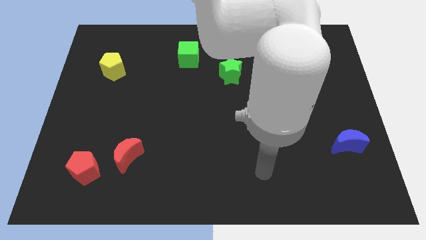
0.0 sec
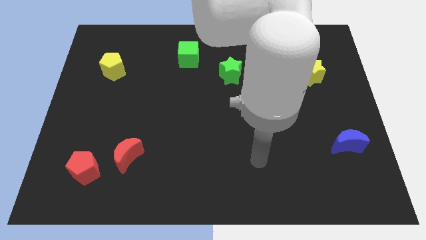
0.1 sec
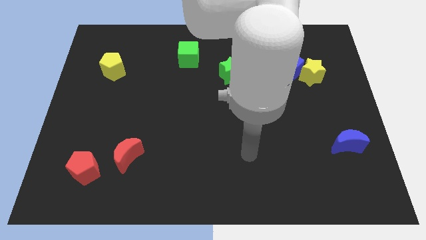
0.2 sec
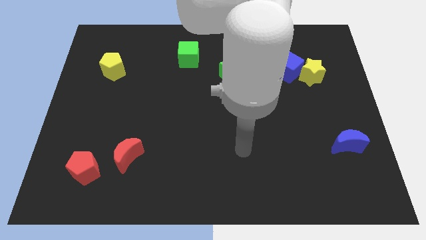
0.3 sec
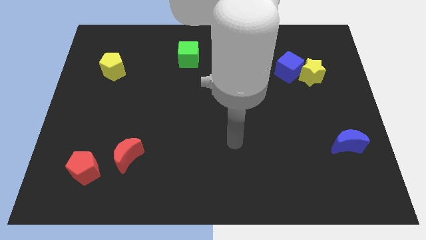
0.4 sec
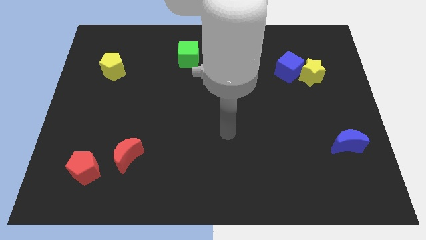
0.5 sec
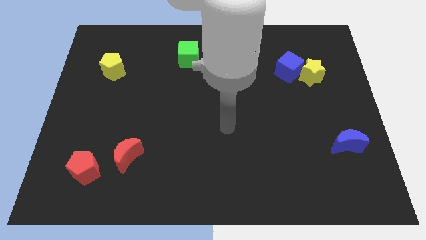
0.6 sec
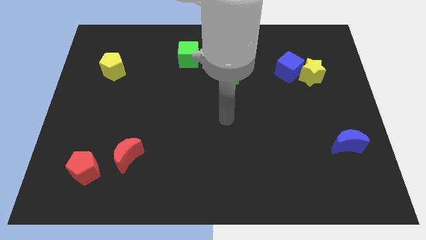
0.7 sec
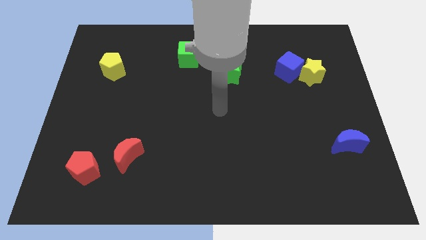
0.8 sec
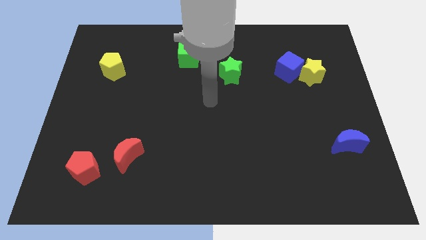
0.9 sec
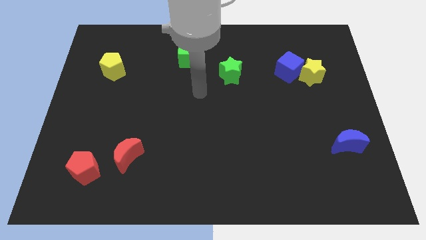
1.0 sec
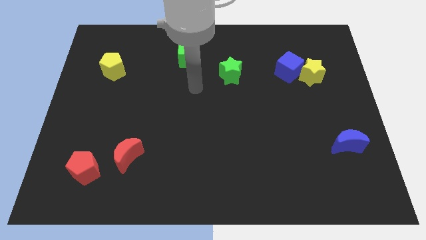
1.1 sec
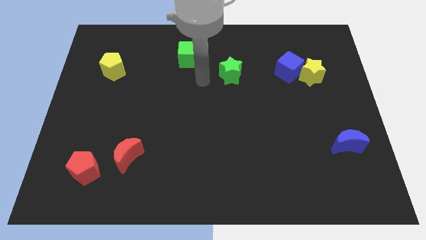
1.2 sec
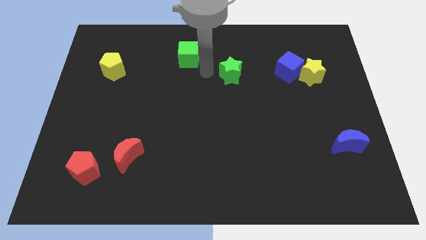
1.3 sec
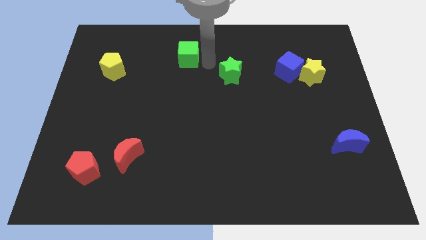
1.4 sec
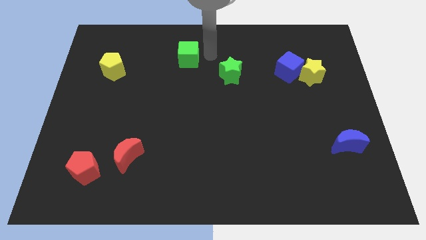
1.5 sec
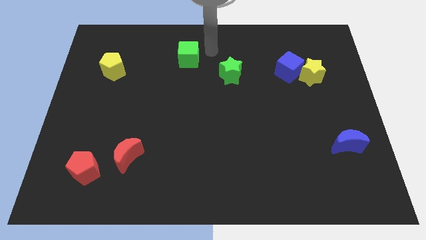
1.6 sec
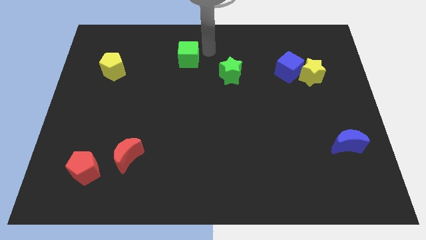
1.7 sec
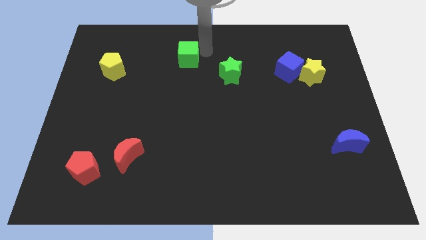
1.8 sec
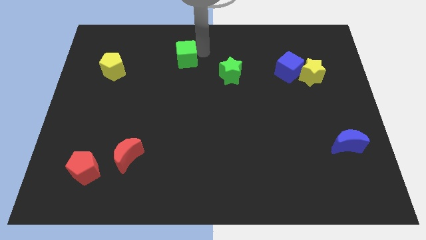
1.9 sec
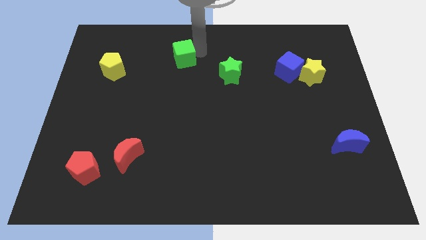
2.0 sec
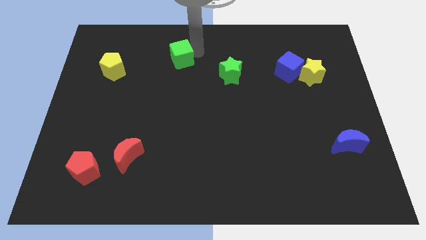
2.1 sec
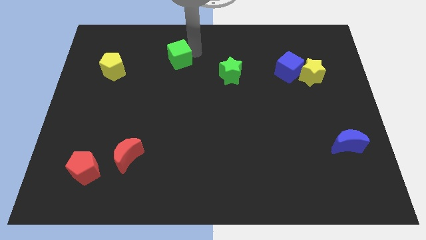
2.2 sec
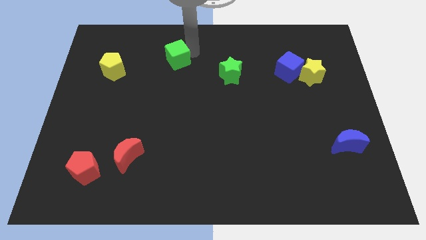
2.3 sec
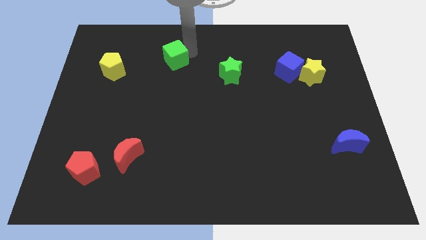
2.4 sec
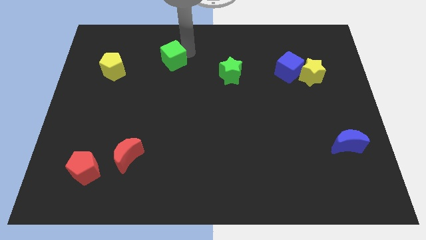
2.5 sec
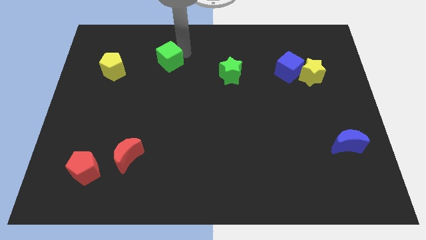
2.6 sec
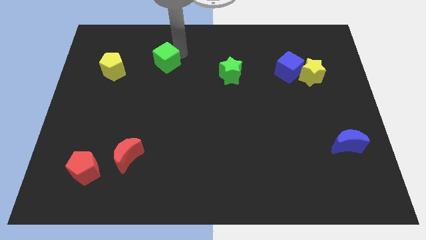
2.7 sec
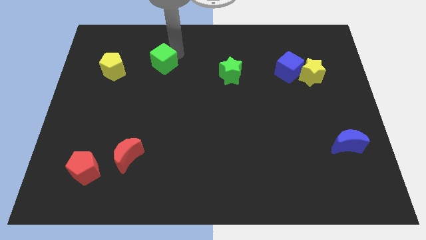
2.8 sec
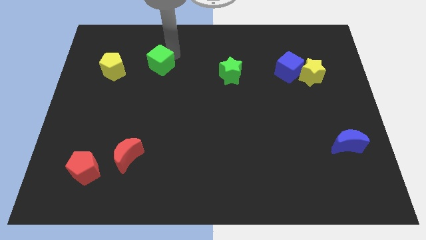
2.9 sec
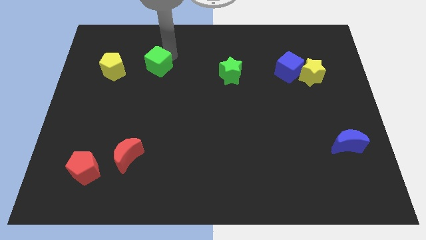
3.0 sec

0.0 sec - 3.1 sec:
slide the green cube a little diagonally downwards and to the left

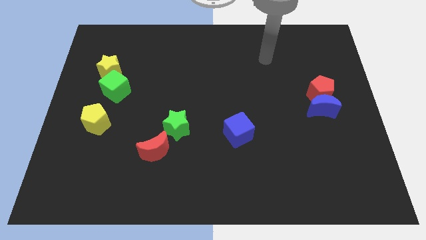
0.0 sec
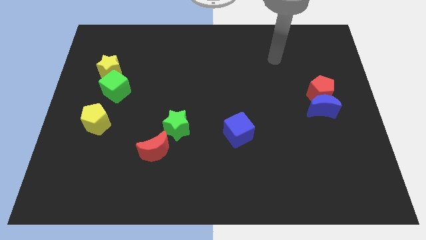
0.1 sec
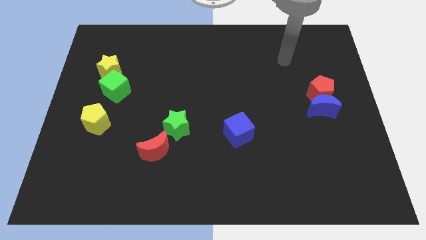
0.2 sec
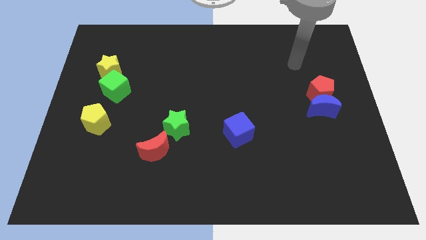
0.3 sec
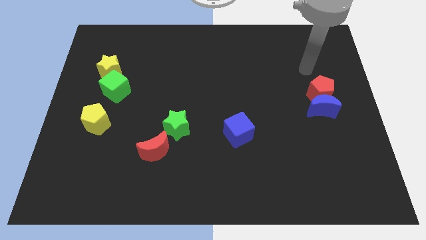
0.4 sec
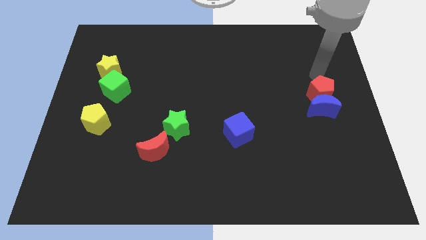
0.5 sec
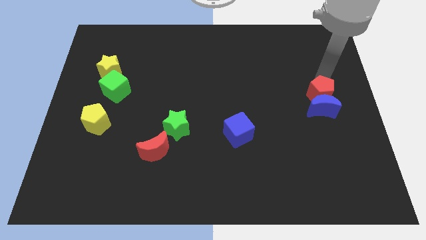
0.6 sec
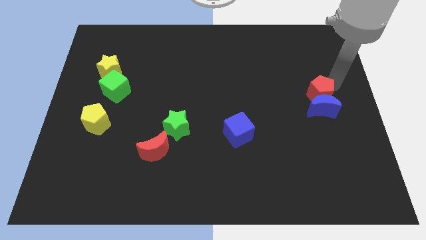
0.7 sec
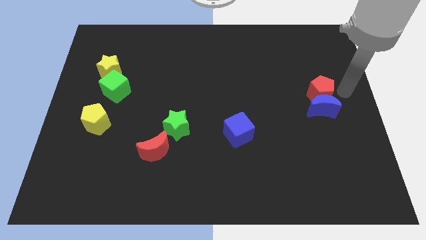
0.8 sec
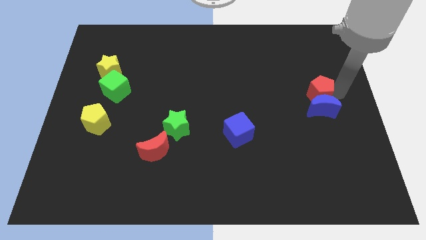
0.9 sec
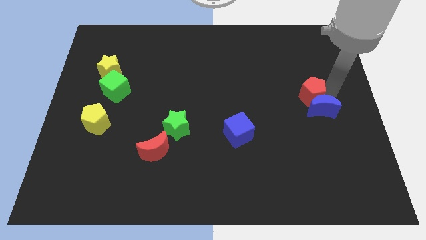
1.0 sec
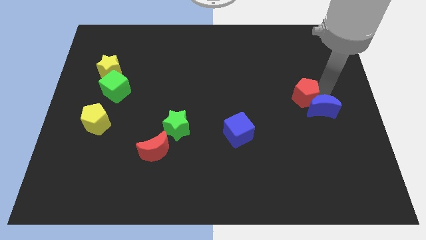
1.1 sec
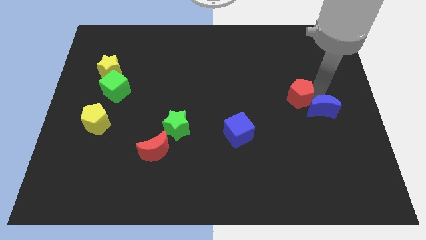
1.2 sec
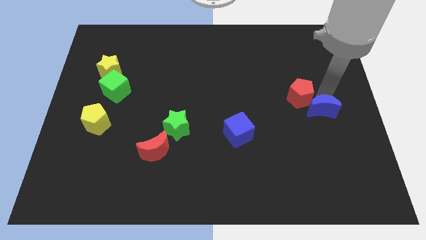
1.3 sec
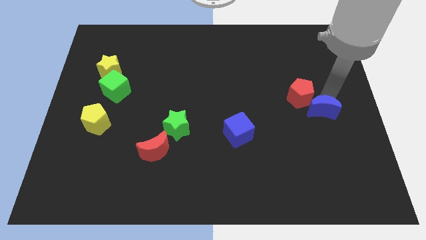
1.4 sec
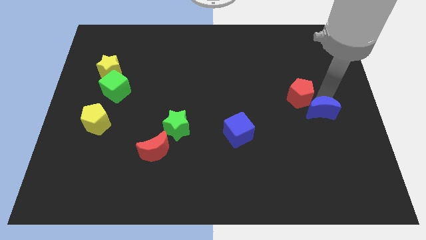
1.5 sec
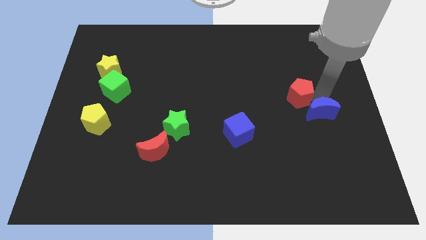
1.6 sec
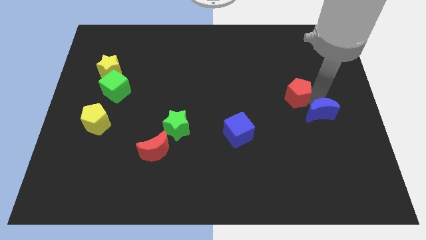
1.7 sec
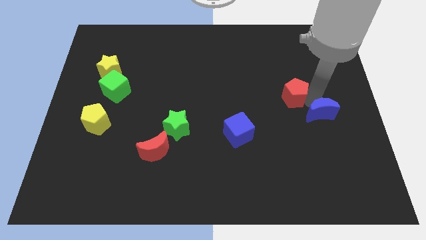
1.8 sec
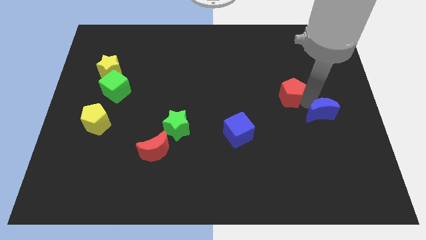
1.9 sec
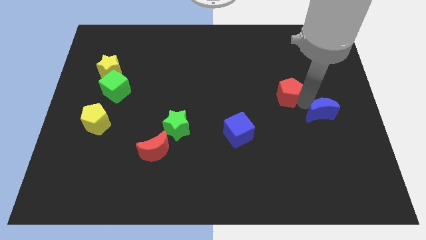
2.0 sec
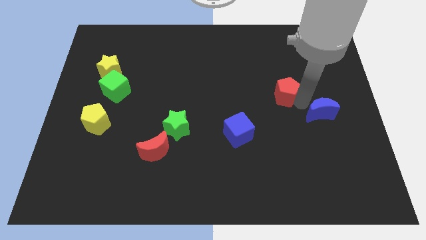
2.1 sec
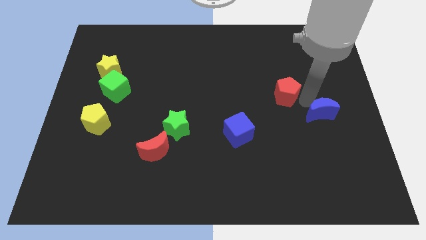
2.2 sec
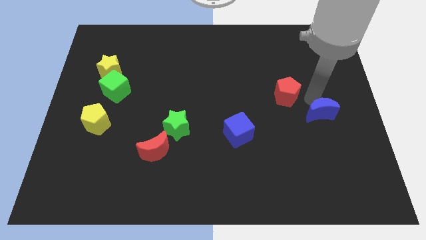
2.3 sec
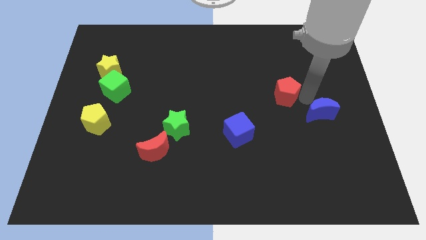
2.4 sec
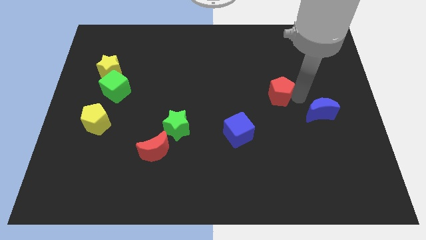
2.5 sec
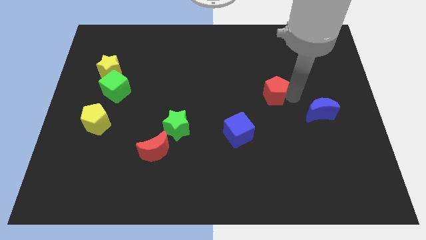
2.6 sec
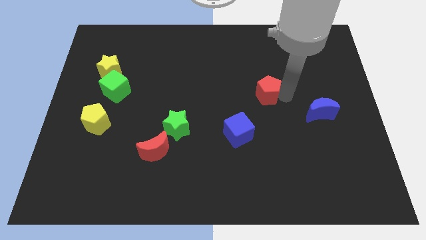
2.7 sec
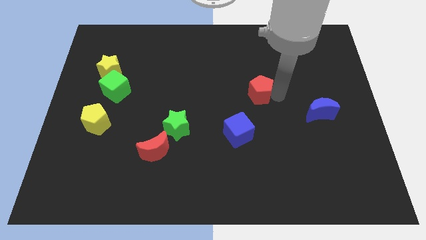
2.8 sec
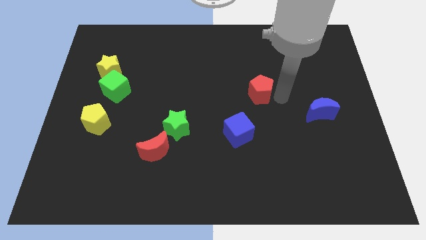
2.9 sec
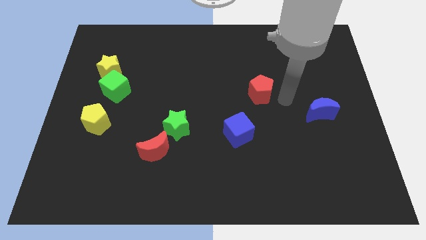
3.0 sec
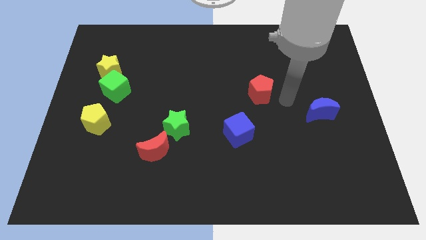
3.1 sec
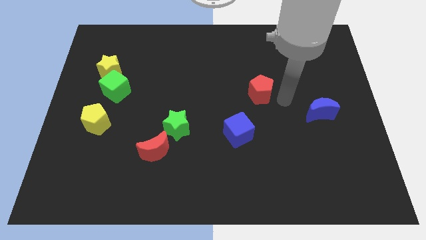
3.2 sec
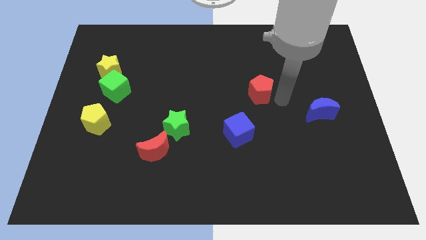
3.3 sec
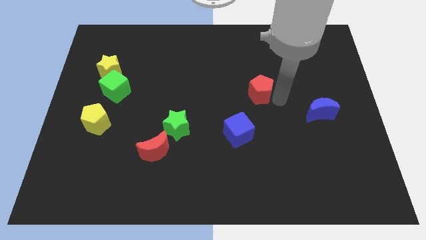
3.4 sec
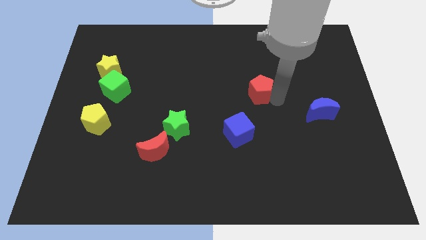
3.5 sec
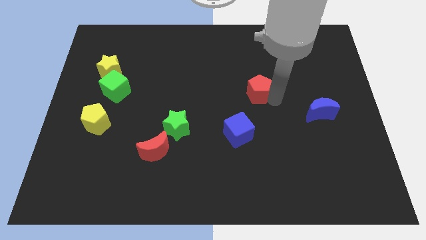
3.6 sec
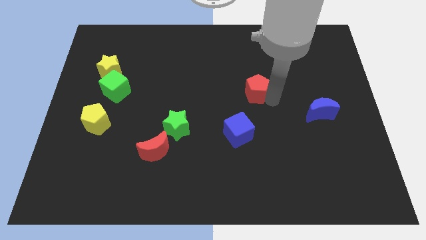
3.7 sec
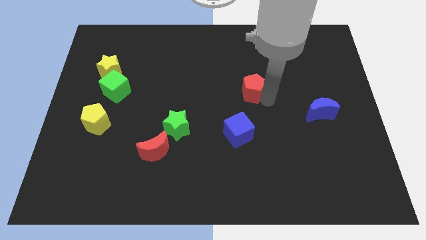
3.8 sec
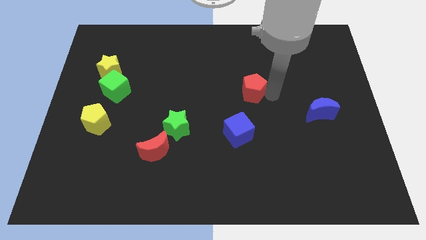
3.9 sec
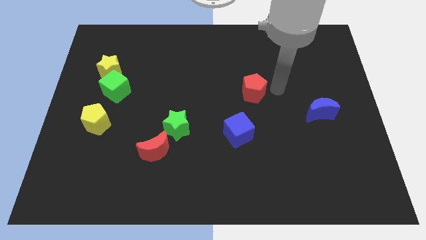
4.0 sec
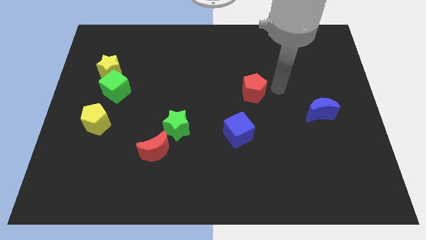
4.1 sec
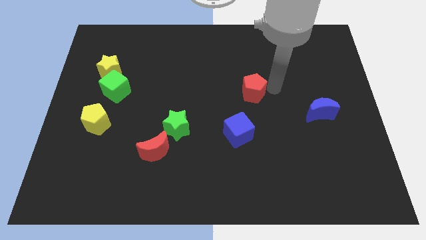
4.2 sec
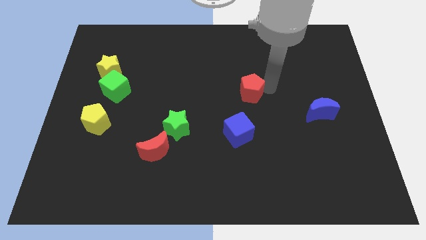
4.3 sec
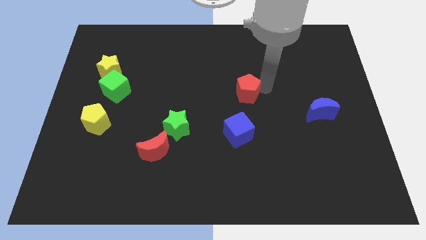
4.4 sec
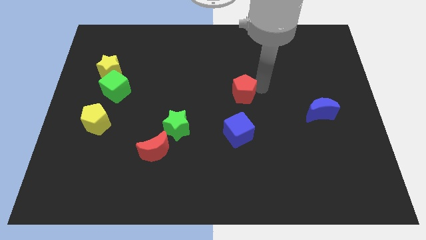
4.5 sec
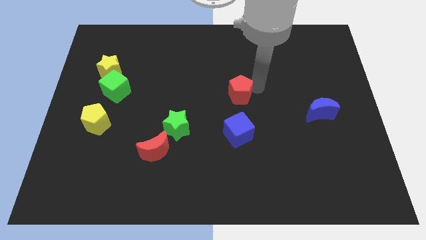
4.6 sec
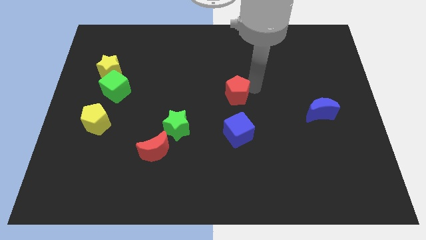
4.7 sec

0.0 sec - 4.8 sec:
push the red pentagon left

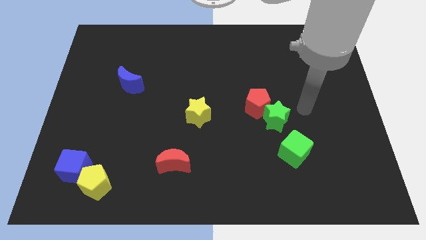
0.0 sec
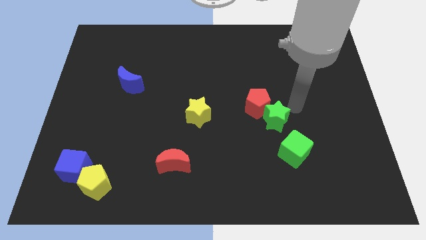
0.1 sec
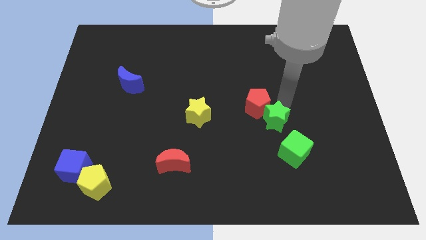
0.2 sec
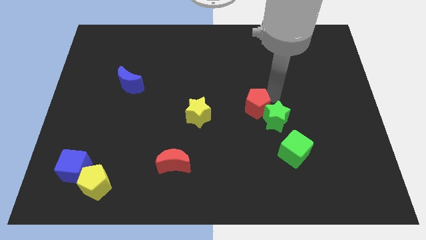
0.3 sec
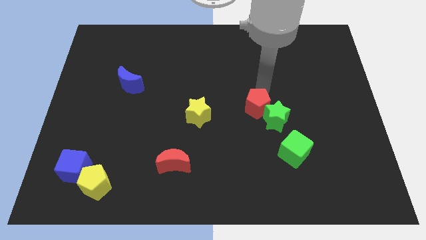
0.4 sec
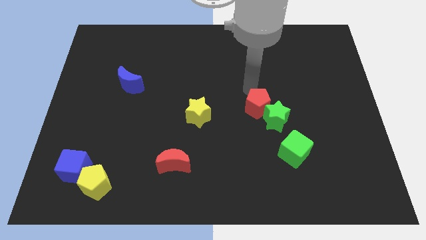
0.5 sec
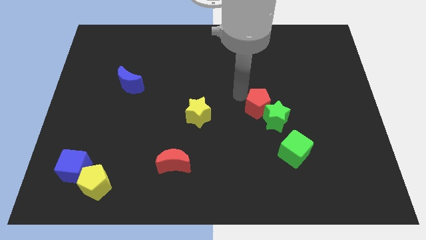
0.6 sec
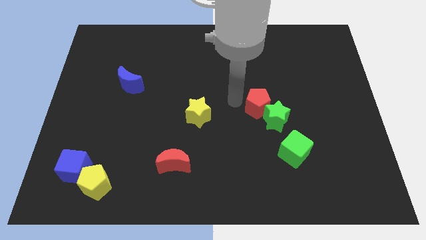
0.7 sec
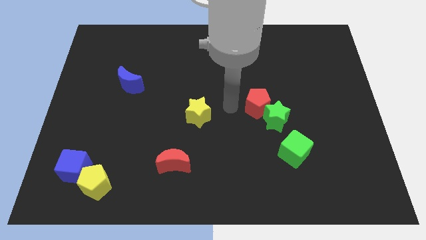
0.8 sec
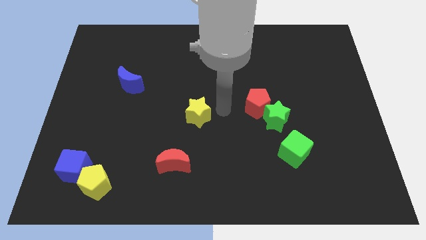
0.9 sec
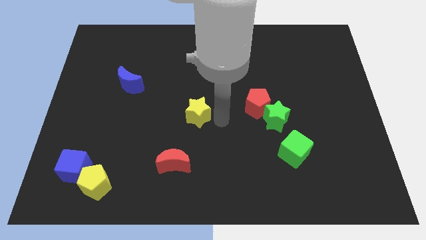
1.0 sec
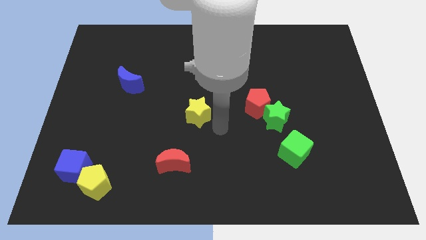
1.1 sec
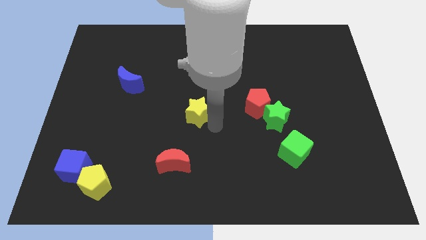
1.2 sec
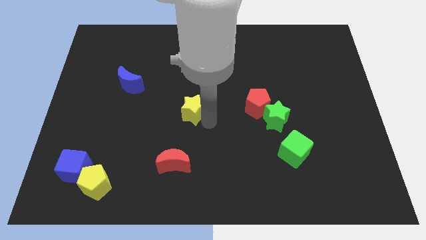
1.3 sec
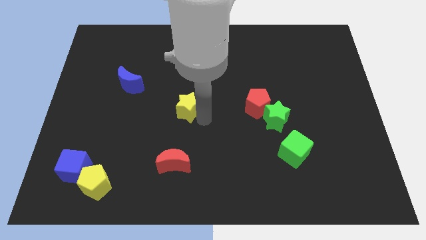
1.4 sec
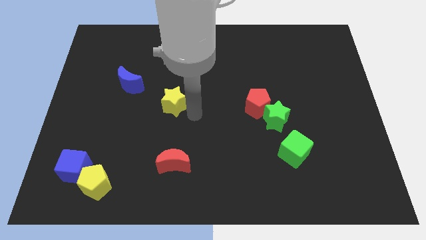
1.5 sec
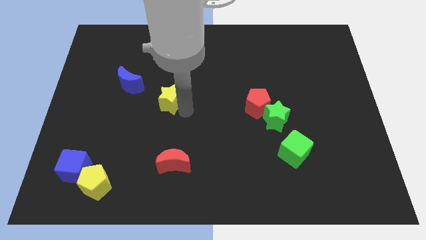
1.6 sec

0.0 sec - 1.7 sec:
slightly push the yellow star upwards and to the left
